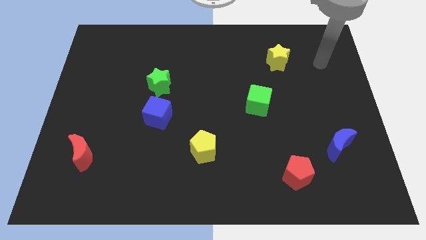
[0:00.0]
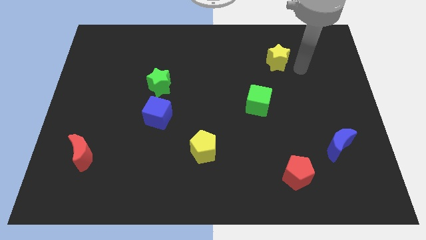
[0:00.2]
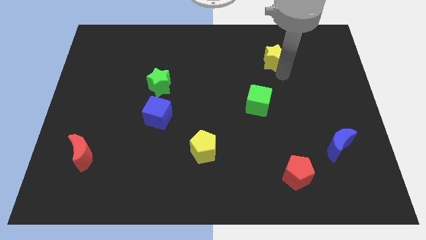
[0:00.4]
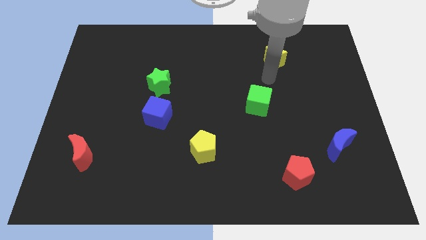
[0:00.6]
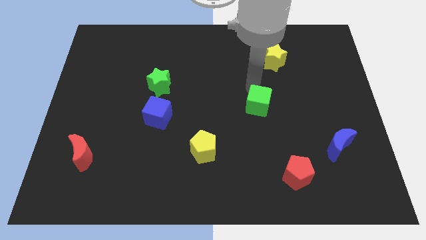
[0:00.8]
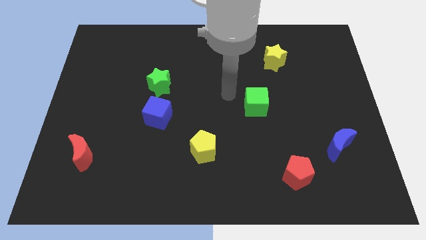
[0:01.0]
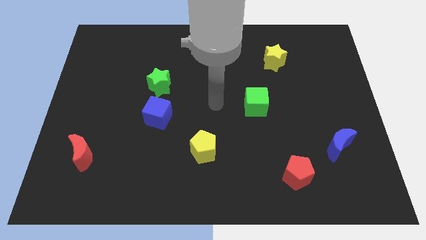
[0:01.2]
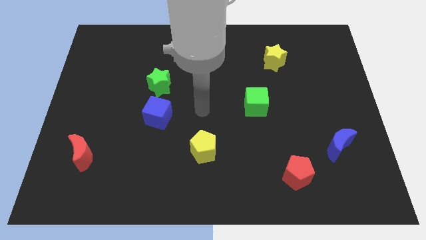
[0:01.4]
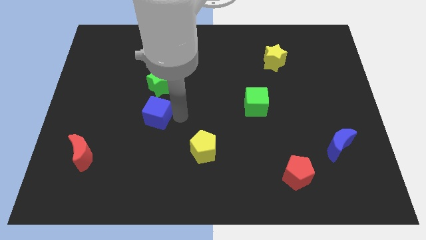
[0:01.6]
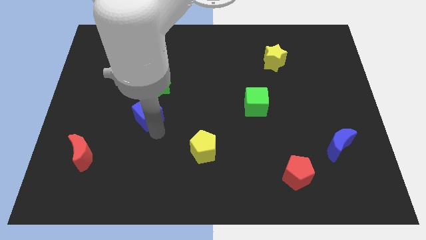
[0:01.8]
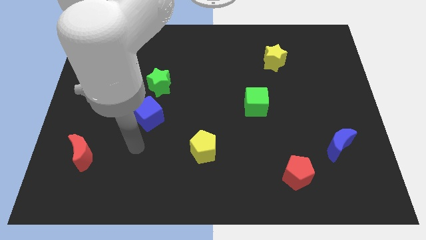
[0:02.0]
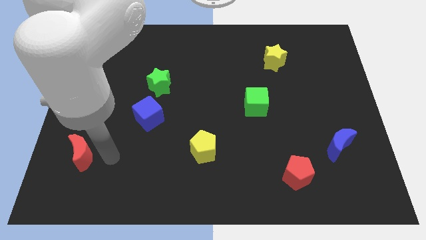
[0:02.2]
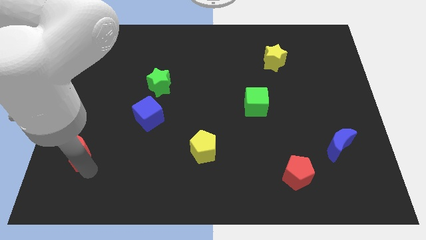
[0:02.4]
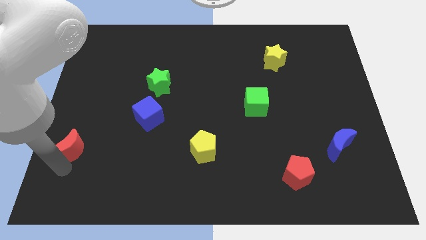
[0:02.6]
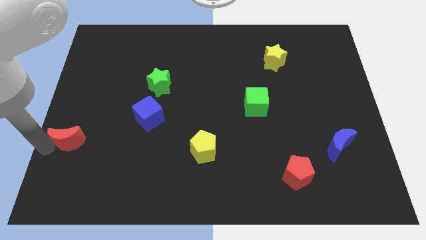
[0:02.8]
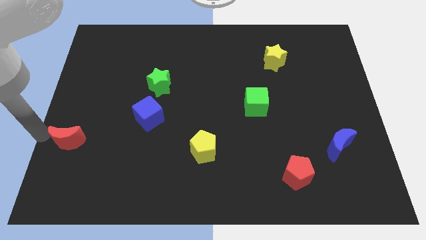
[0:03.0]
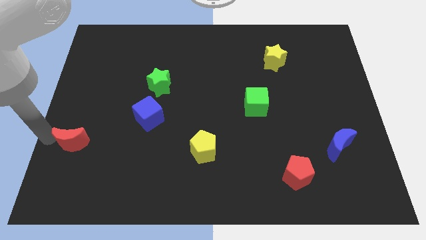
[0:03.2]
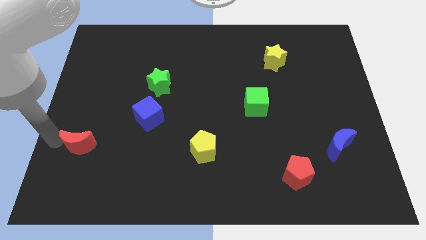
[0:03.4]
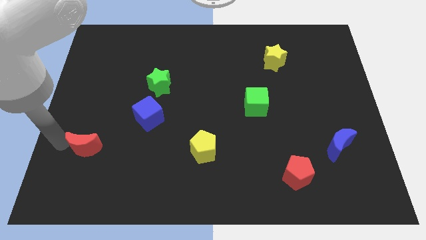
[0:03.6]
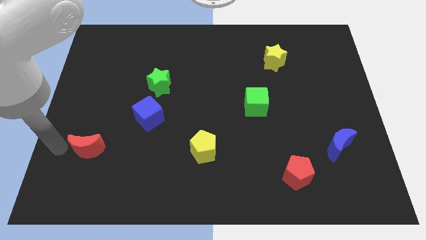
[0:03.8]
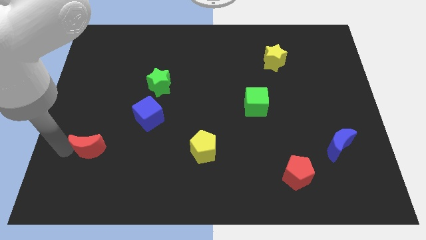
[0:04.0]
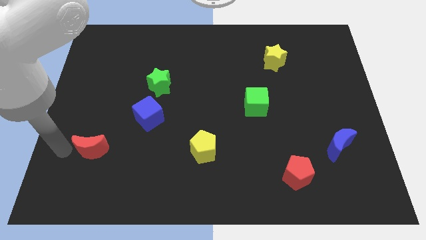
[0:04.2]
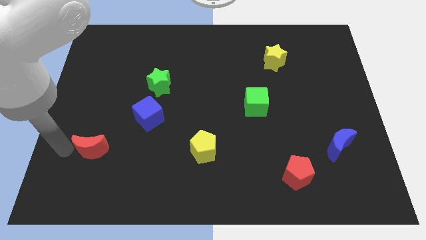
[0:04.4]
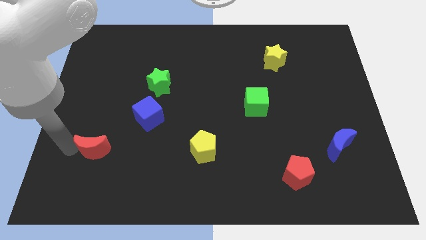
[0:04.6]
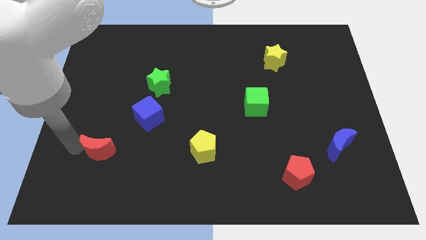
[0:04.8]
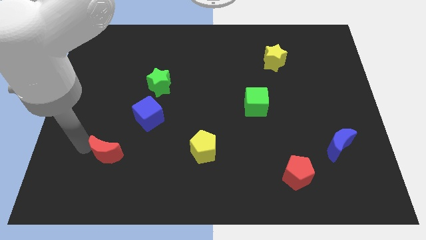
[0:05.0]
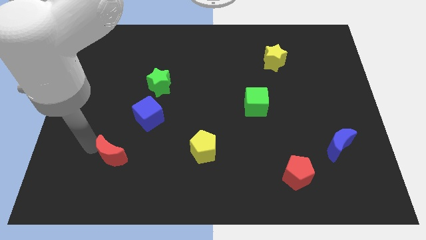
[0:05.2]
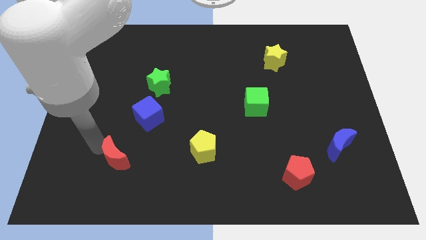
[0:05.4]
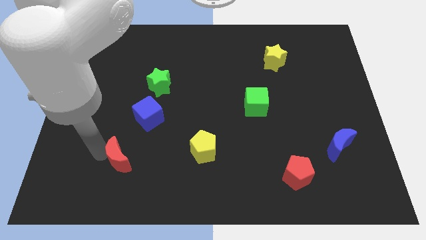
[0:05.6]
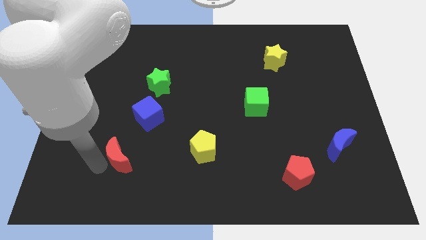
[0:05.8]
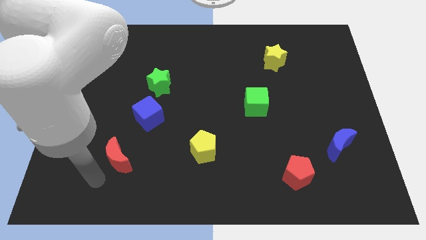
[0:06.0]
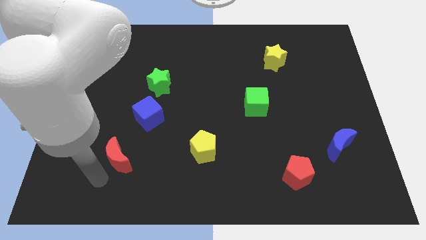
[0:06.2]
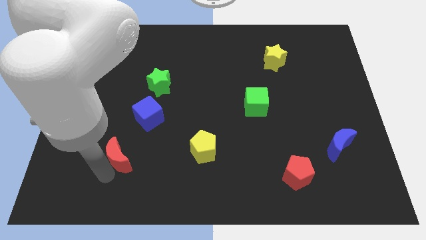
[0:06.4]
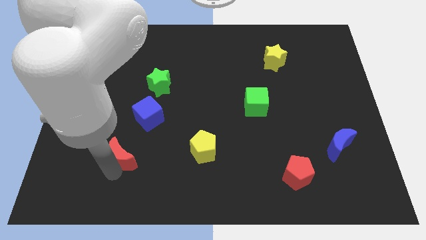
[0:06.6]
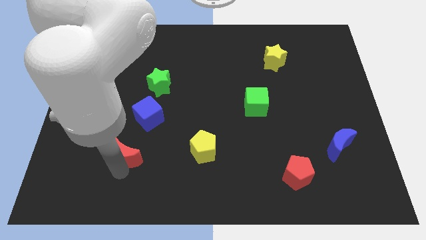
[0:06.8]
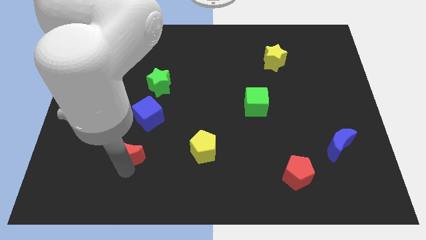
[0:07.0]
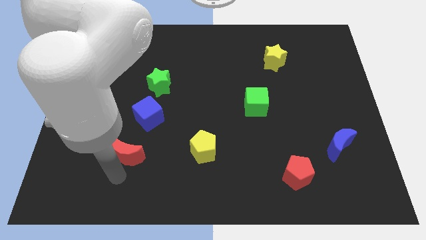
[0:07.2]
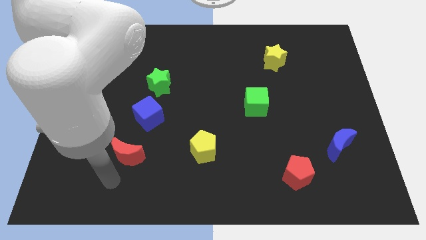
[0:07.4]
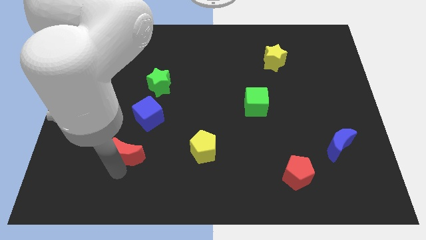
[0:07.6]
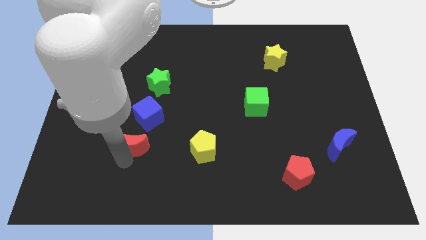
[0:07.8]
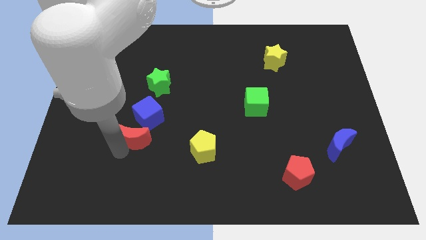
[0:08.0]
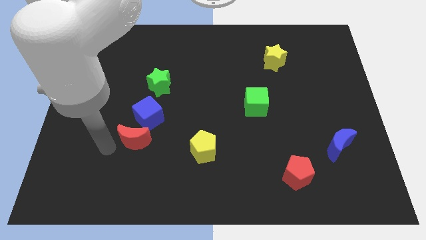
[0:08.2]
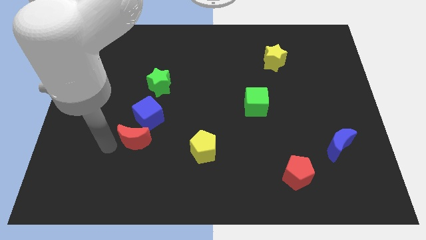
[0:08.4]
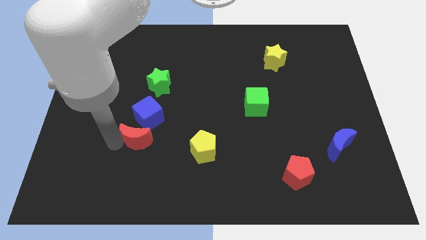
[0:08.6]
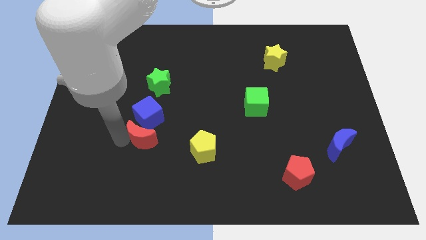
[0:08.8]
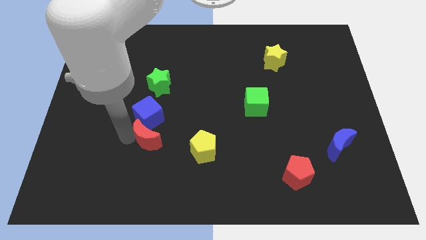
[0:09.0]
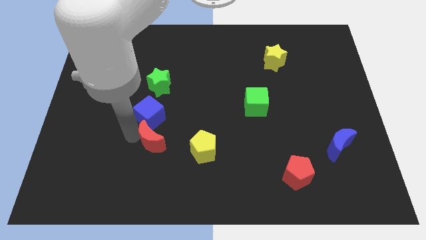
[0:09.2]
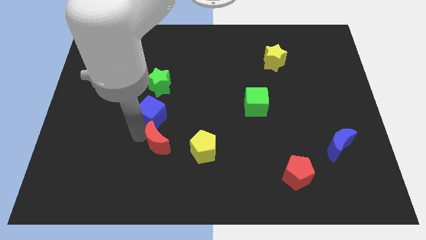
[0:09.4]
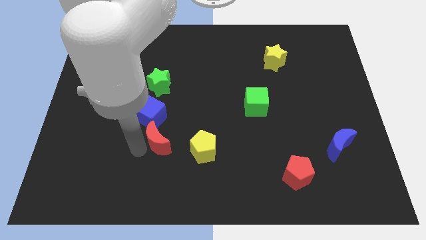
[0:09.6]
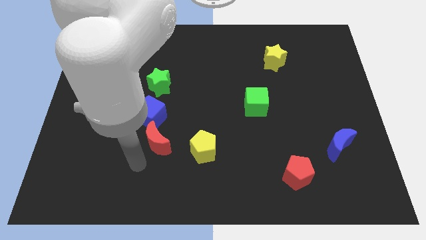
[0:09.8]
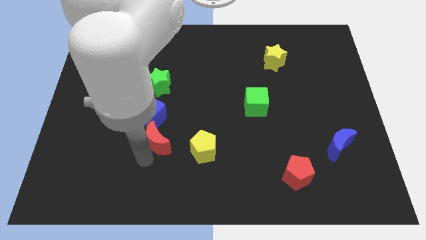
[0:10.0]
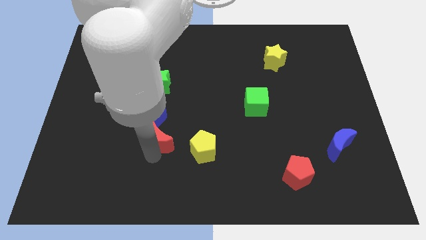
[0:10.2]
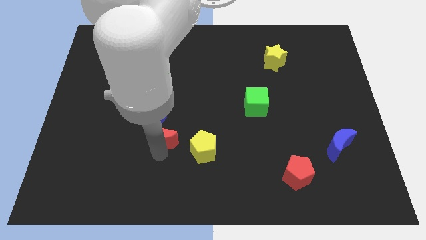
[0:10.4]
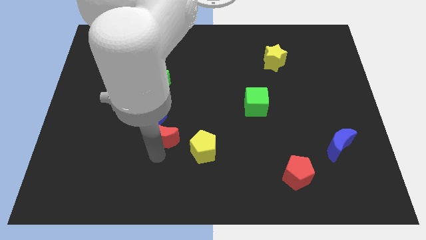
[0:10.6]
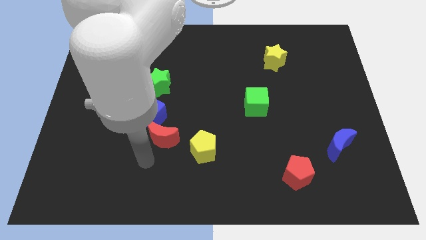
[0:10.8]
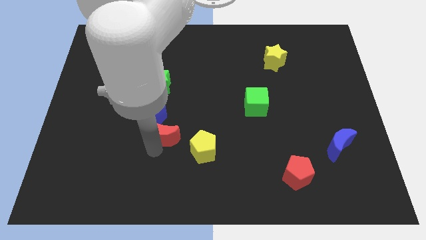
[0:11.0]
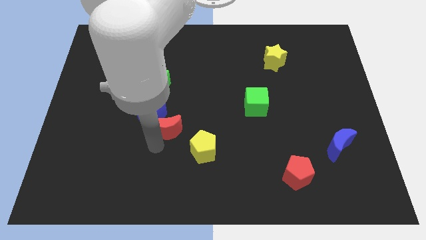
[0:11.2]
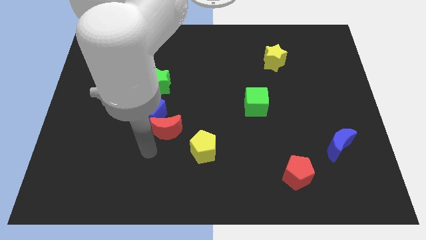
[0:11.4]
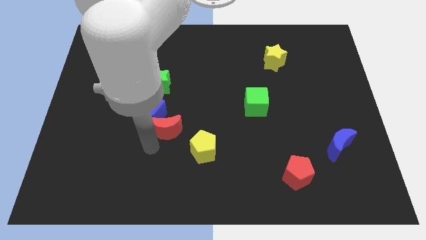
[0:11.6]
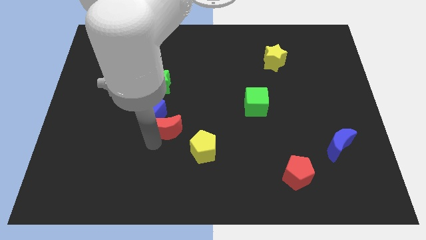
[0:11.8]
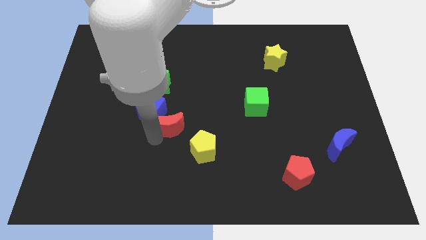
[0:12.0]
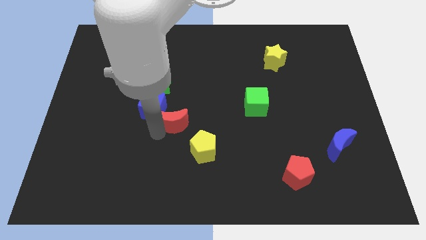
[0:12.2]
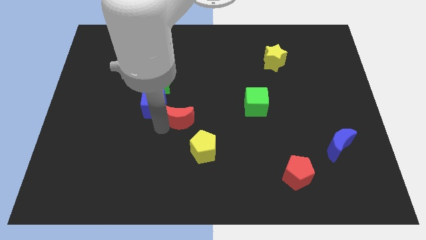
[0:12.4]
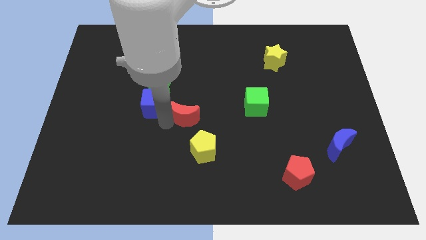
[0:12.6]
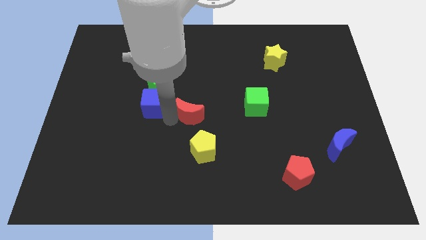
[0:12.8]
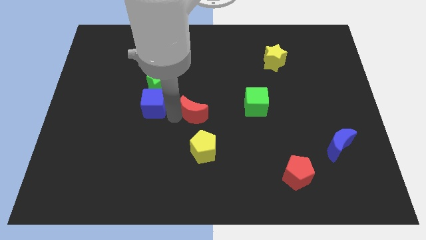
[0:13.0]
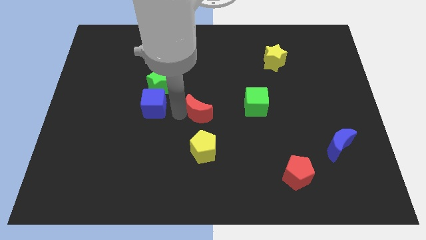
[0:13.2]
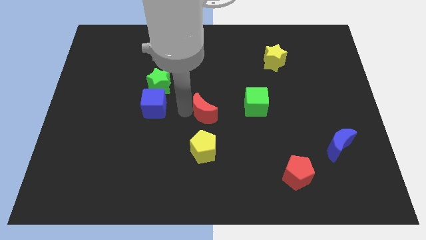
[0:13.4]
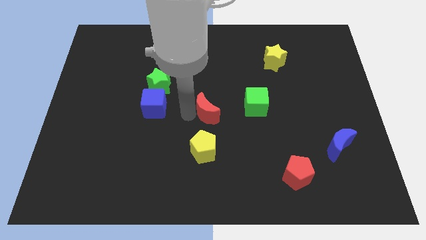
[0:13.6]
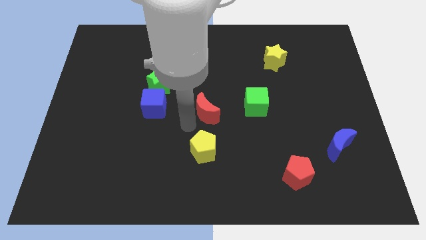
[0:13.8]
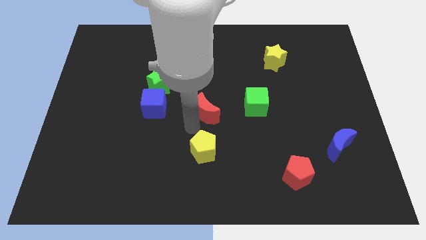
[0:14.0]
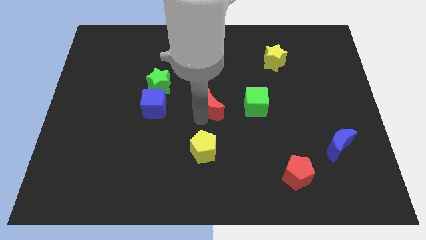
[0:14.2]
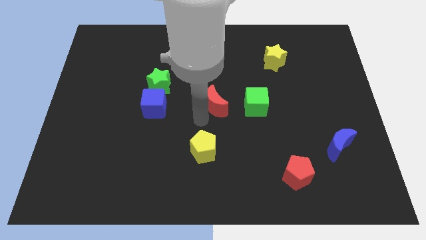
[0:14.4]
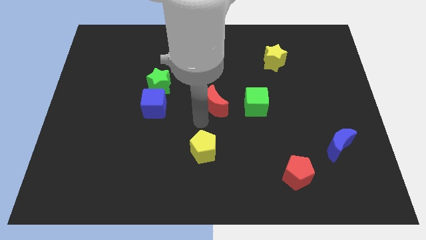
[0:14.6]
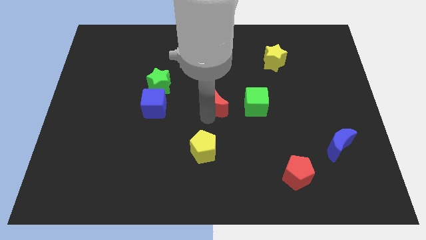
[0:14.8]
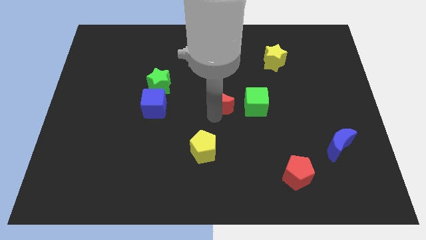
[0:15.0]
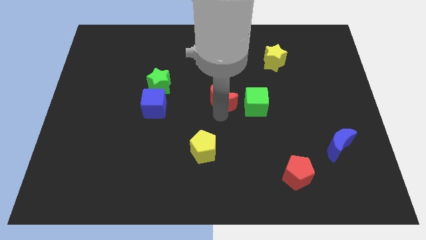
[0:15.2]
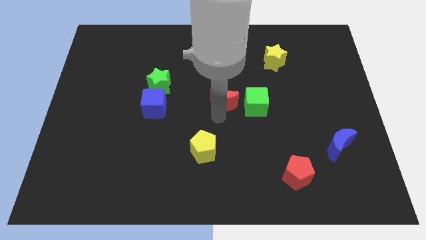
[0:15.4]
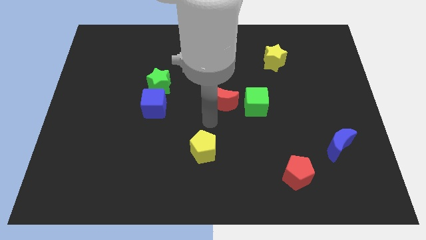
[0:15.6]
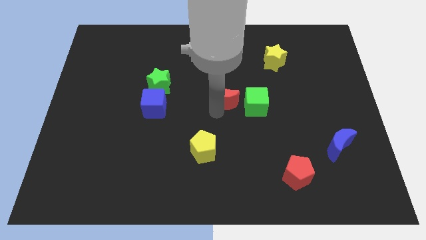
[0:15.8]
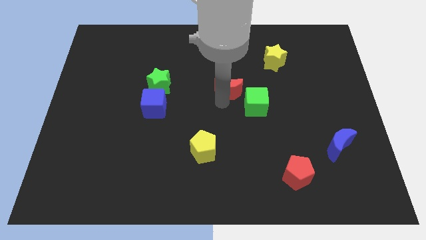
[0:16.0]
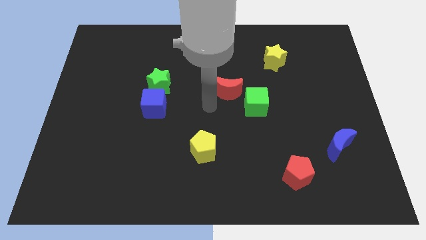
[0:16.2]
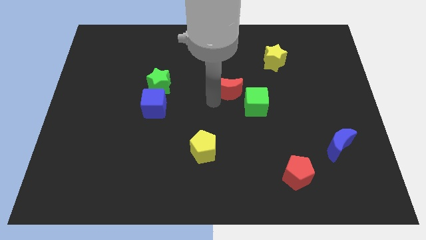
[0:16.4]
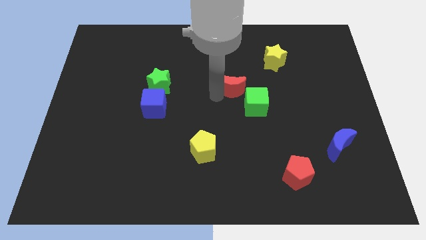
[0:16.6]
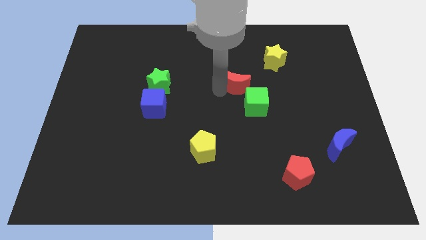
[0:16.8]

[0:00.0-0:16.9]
push the red moon to the top of the green cube
